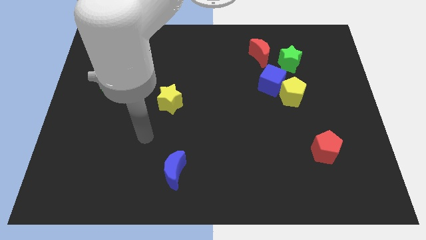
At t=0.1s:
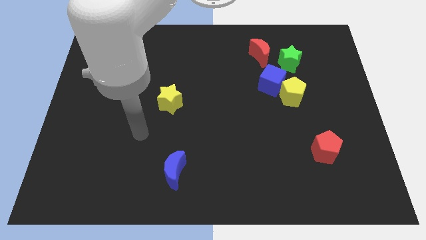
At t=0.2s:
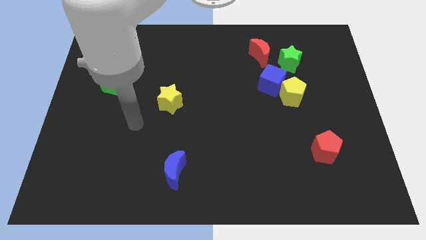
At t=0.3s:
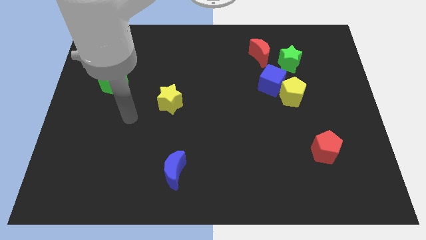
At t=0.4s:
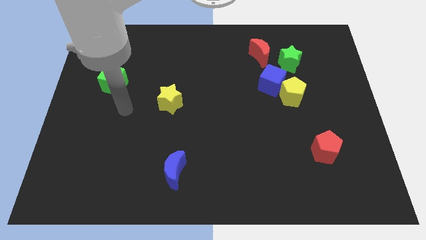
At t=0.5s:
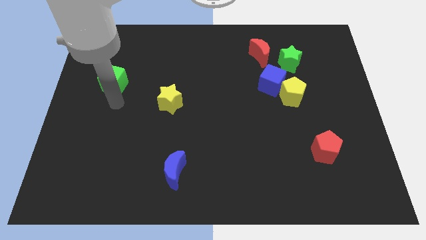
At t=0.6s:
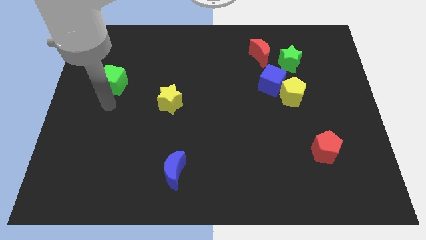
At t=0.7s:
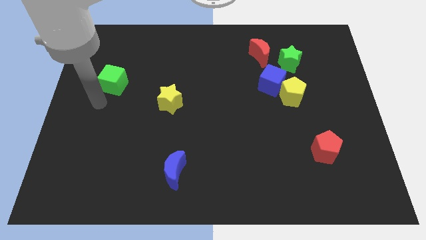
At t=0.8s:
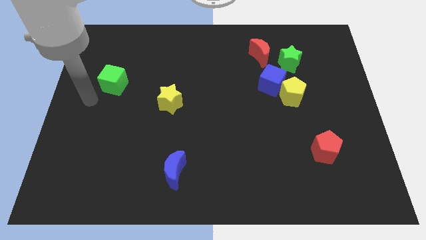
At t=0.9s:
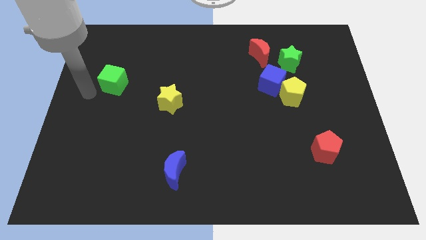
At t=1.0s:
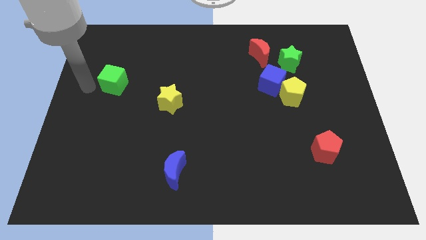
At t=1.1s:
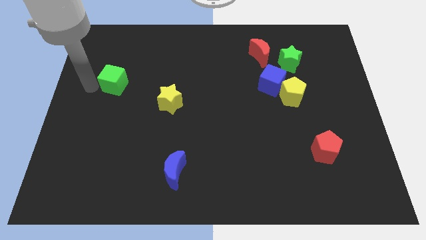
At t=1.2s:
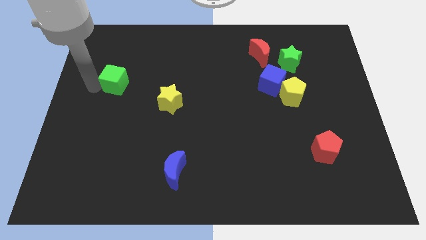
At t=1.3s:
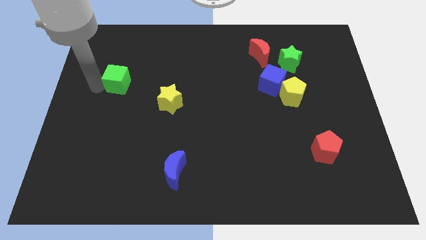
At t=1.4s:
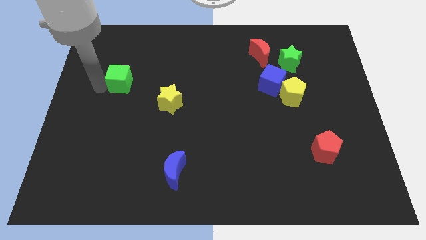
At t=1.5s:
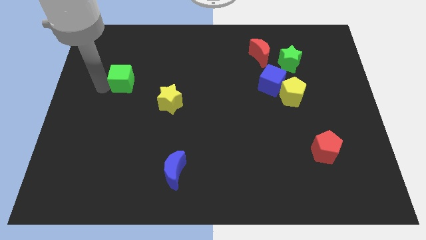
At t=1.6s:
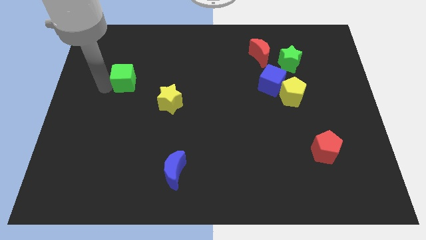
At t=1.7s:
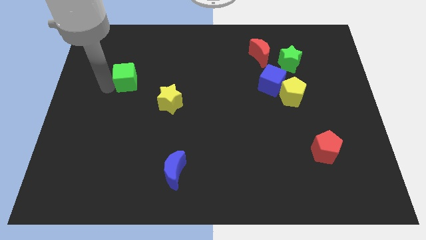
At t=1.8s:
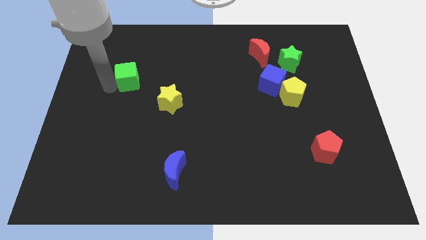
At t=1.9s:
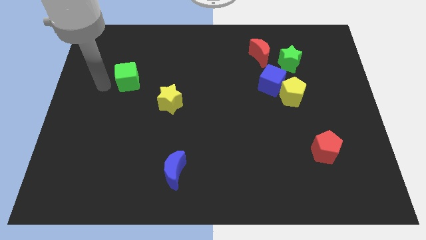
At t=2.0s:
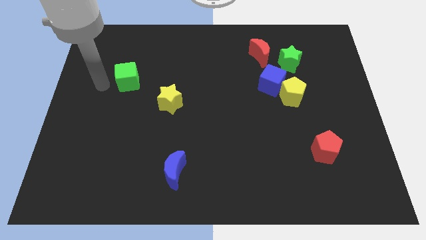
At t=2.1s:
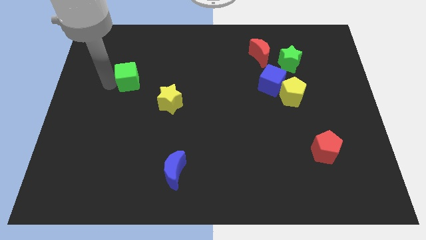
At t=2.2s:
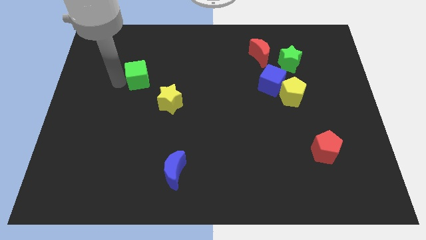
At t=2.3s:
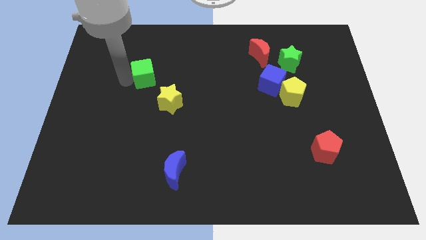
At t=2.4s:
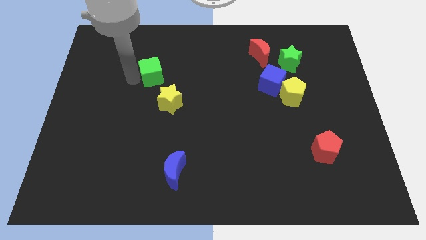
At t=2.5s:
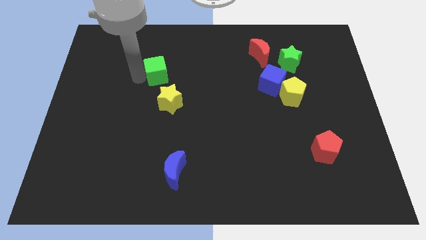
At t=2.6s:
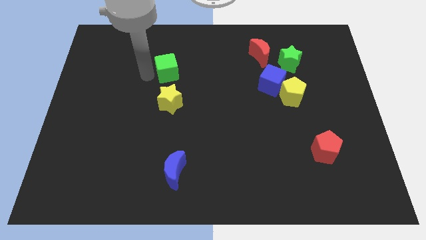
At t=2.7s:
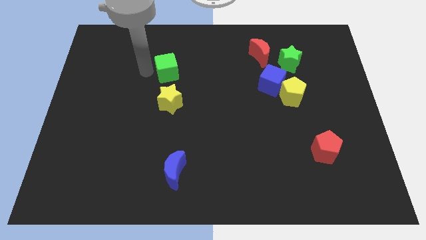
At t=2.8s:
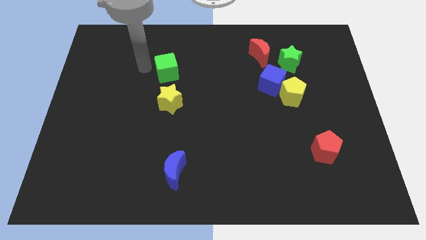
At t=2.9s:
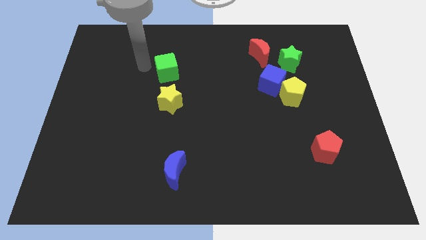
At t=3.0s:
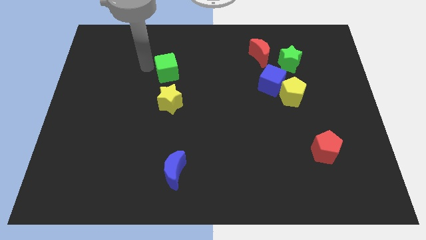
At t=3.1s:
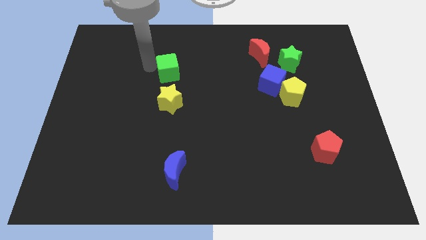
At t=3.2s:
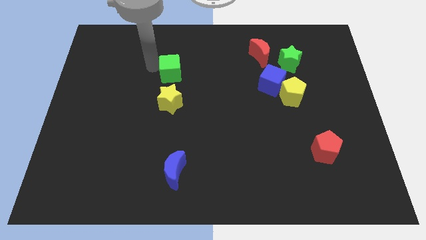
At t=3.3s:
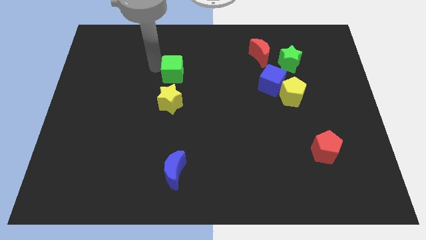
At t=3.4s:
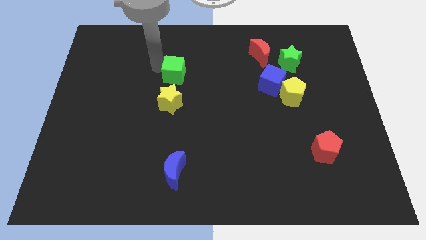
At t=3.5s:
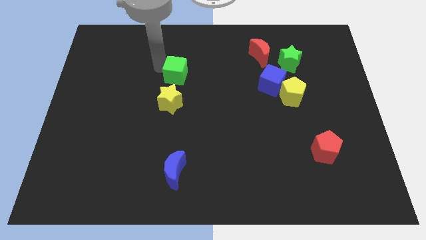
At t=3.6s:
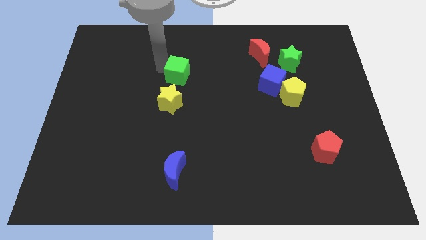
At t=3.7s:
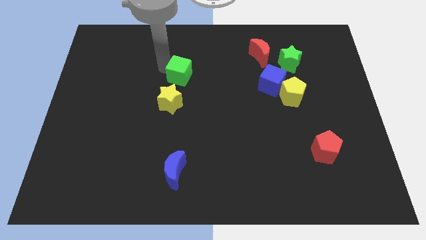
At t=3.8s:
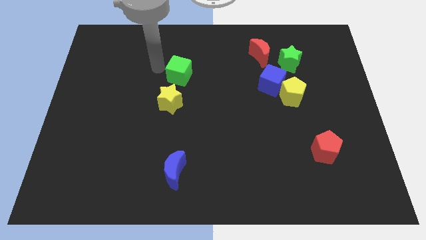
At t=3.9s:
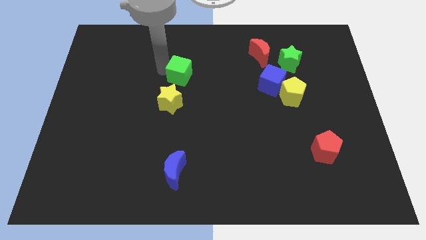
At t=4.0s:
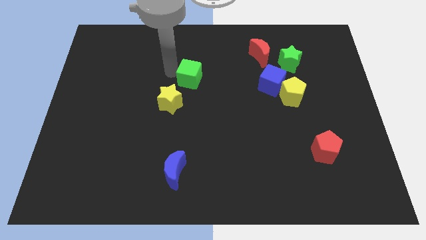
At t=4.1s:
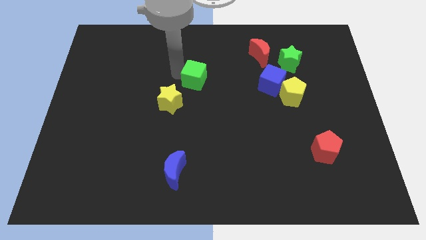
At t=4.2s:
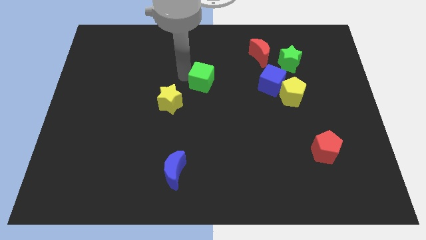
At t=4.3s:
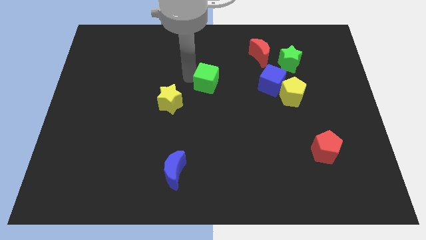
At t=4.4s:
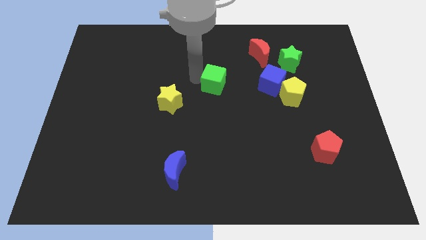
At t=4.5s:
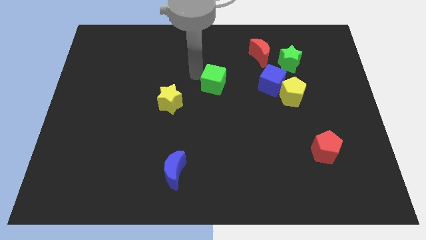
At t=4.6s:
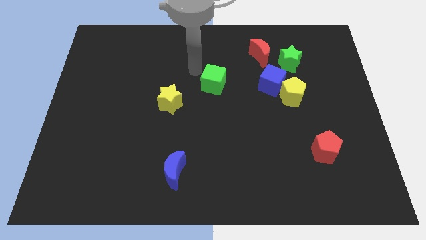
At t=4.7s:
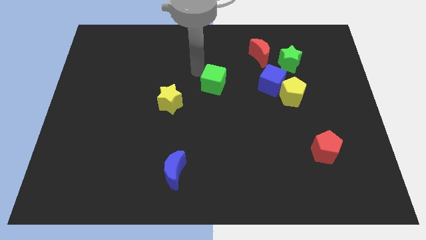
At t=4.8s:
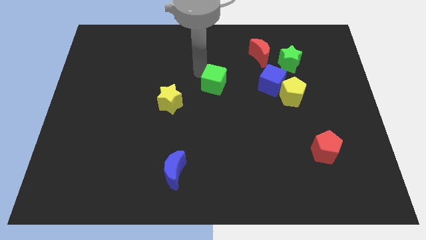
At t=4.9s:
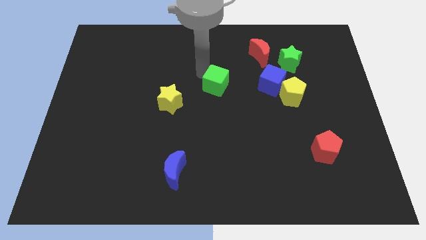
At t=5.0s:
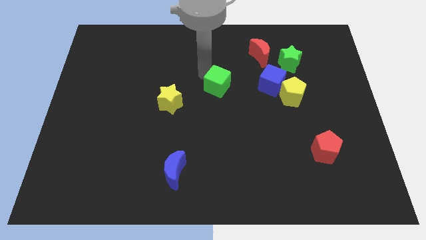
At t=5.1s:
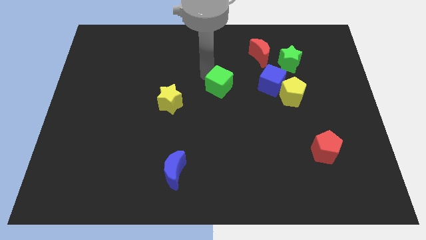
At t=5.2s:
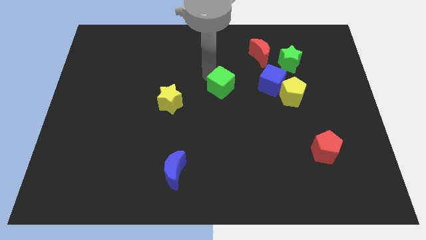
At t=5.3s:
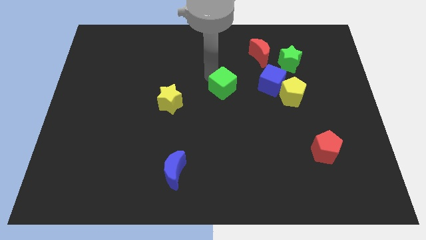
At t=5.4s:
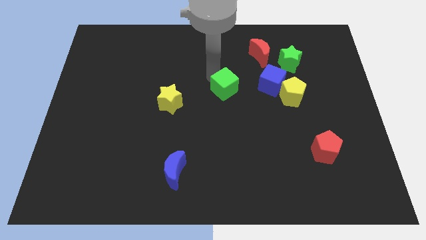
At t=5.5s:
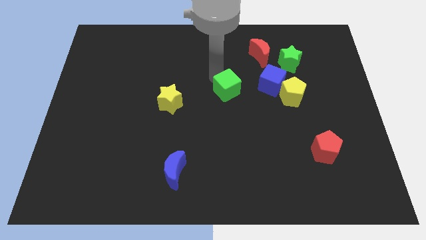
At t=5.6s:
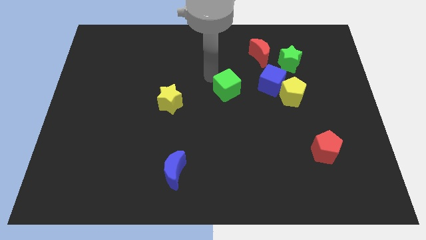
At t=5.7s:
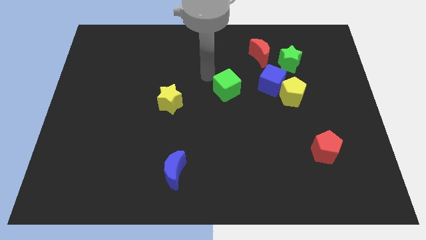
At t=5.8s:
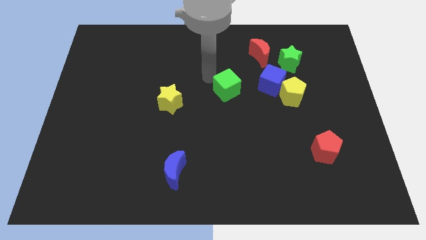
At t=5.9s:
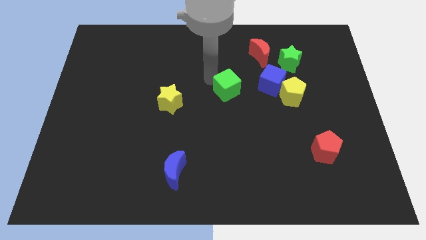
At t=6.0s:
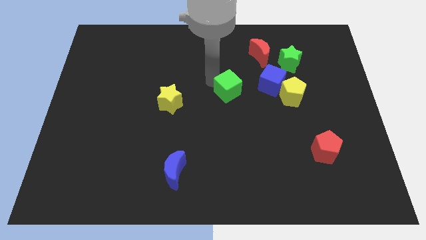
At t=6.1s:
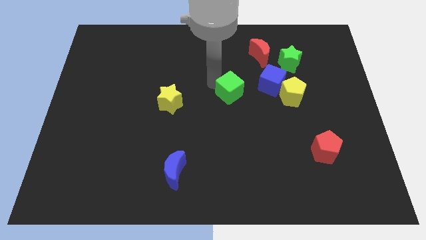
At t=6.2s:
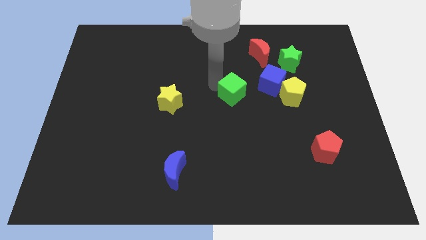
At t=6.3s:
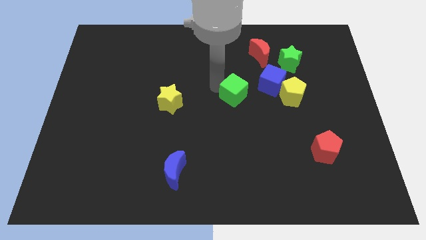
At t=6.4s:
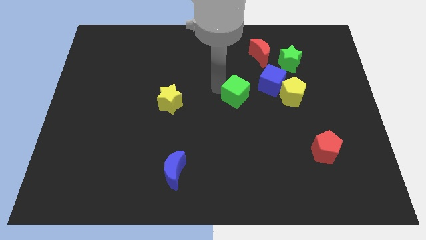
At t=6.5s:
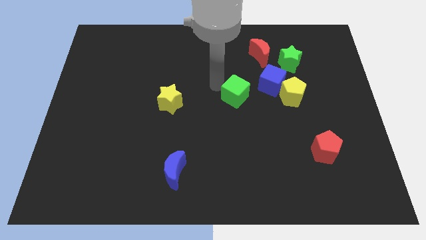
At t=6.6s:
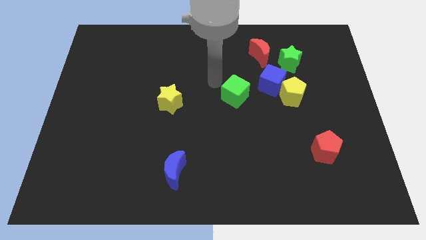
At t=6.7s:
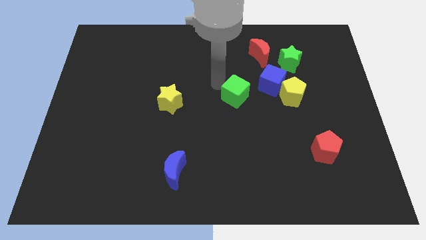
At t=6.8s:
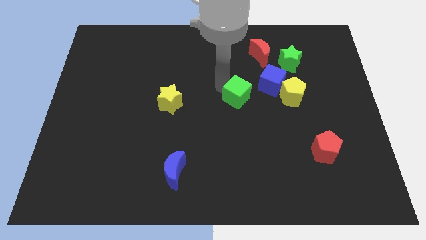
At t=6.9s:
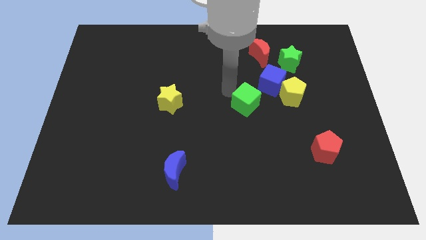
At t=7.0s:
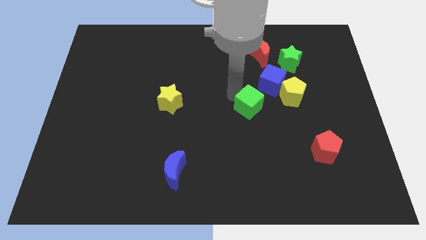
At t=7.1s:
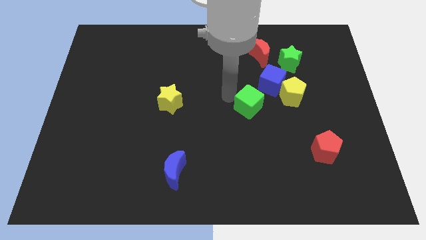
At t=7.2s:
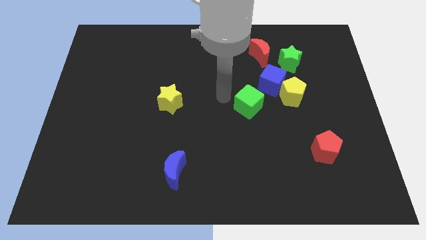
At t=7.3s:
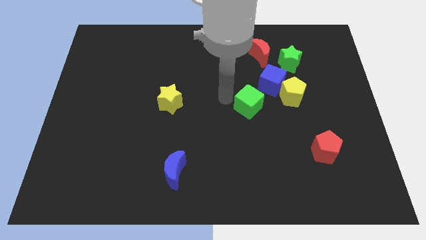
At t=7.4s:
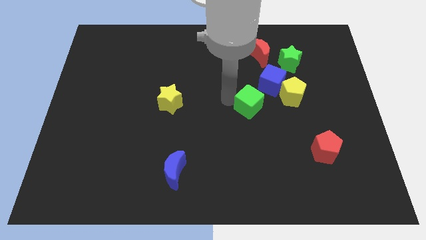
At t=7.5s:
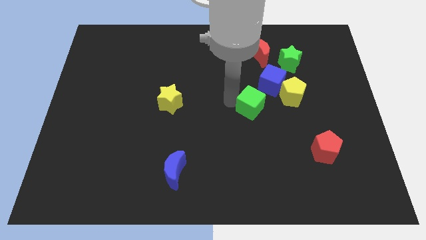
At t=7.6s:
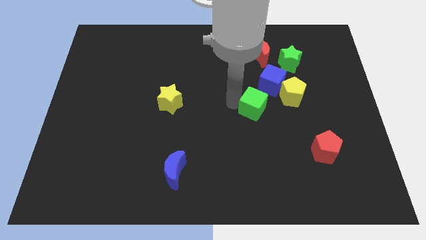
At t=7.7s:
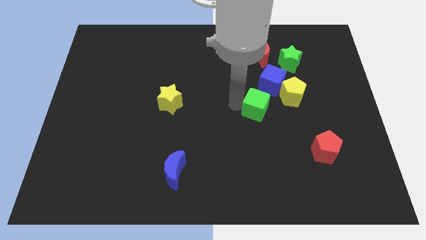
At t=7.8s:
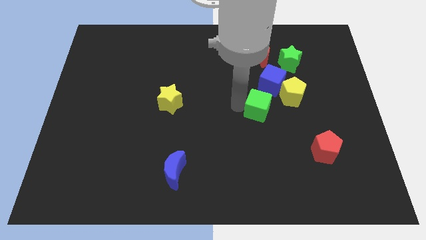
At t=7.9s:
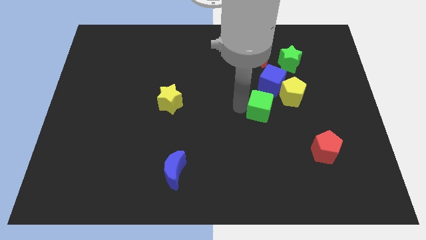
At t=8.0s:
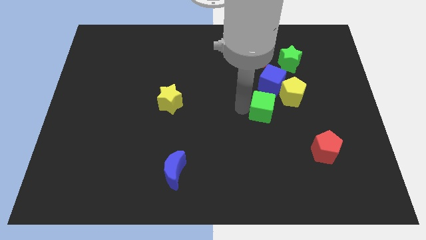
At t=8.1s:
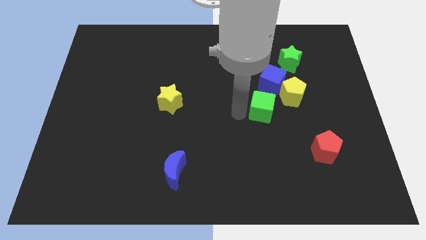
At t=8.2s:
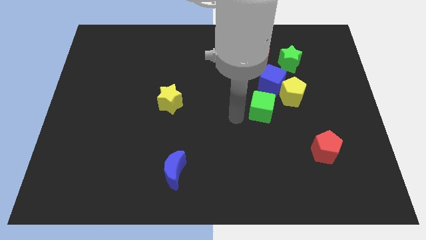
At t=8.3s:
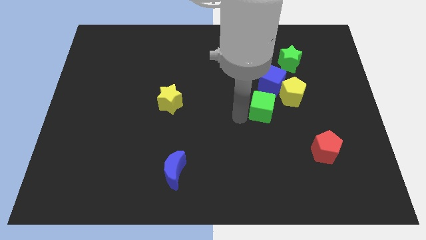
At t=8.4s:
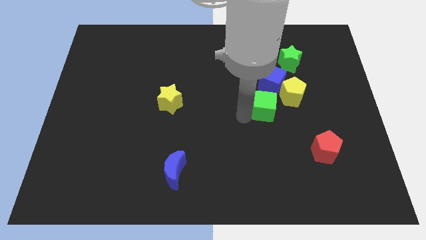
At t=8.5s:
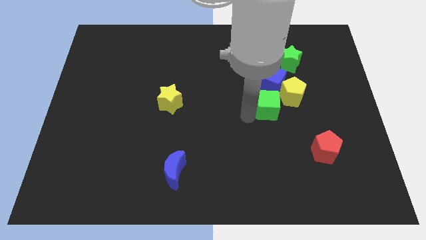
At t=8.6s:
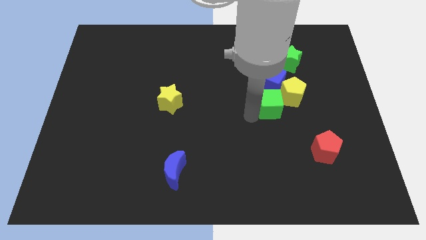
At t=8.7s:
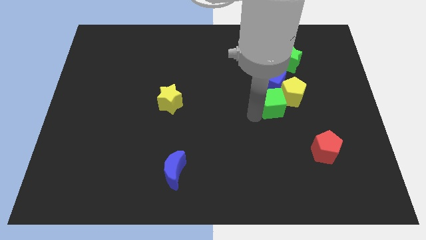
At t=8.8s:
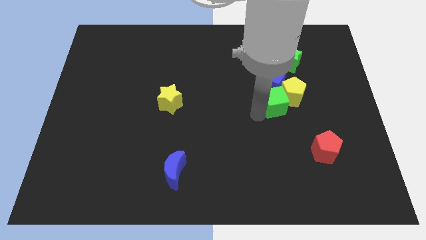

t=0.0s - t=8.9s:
slide the green cube to the bottom right side of the blue cube
